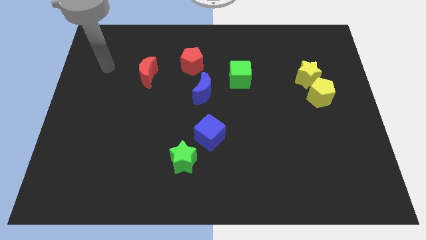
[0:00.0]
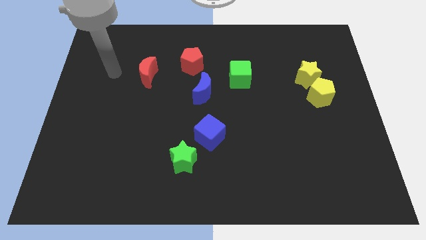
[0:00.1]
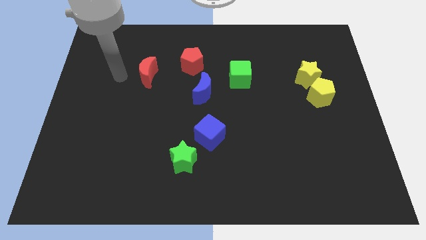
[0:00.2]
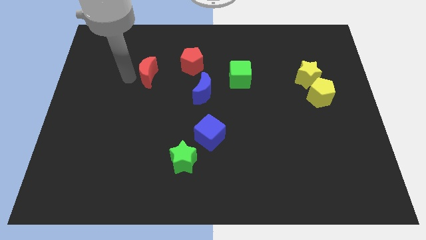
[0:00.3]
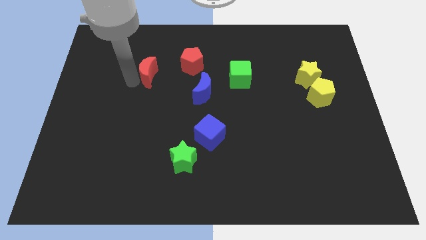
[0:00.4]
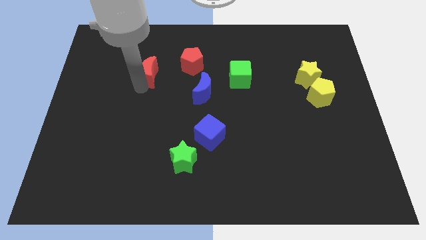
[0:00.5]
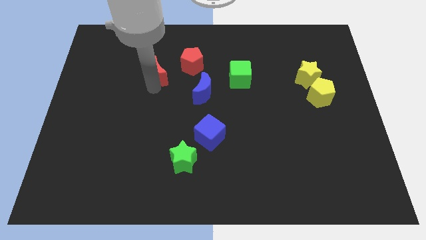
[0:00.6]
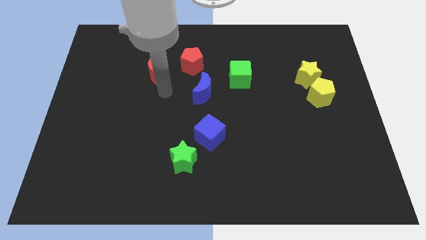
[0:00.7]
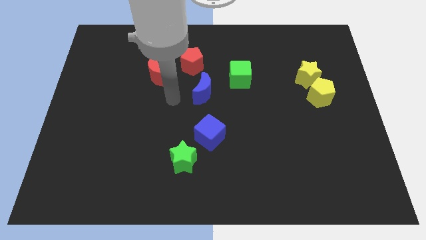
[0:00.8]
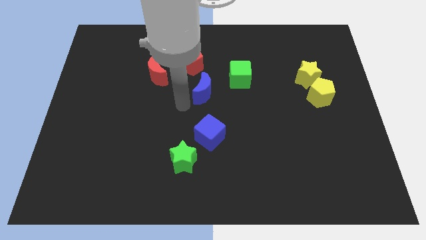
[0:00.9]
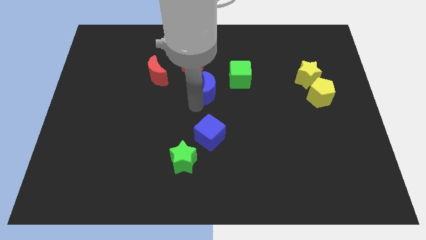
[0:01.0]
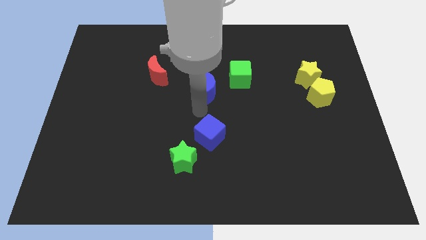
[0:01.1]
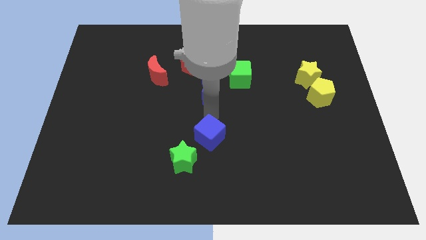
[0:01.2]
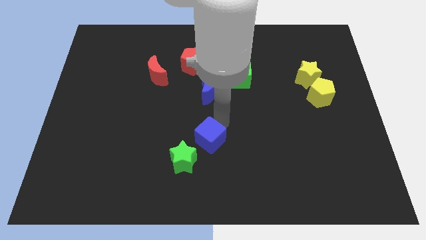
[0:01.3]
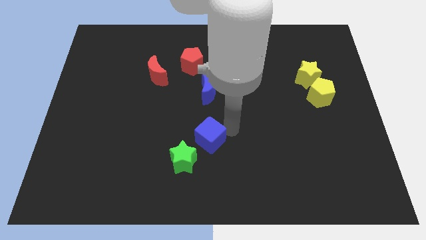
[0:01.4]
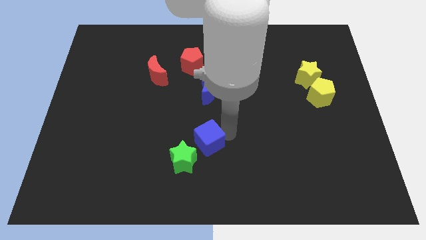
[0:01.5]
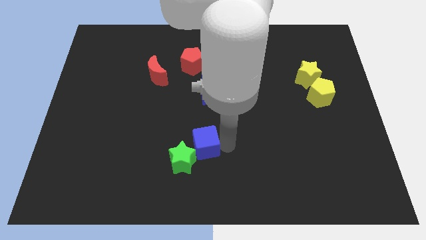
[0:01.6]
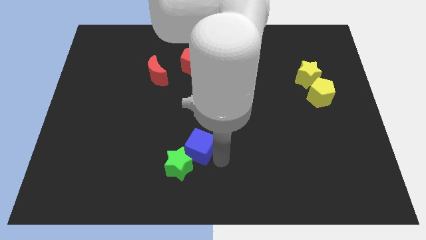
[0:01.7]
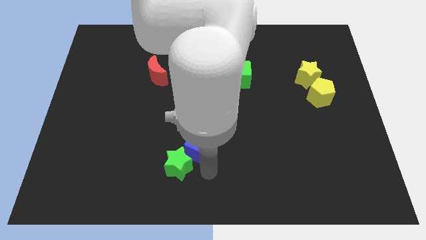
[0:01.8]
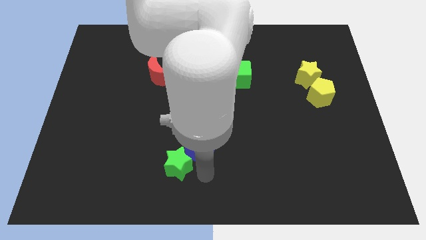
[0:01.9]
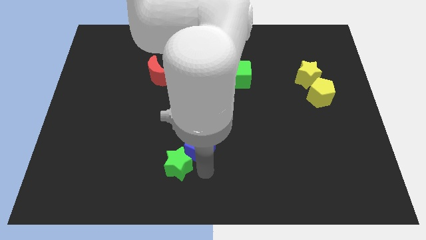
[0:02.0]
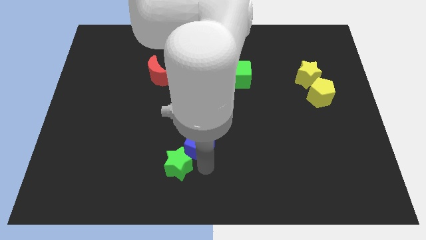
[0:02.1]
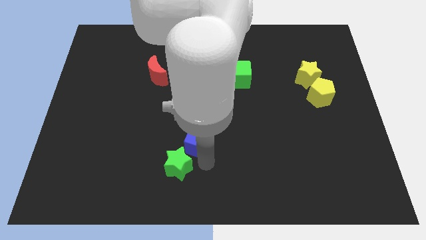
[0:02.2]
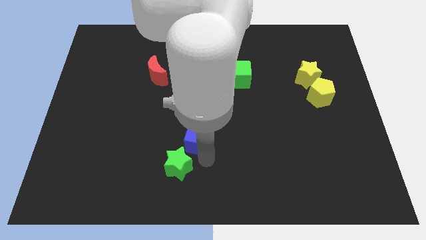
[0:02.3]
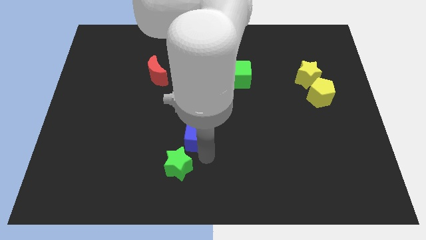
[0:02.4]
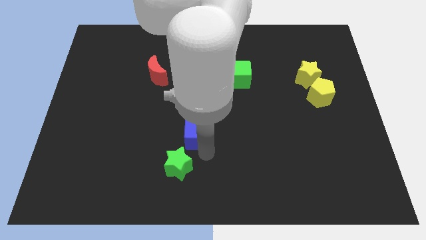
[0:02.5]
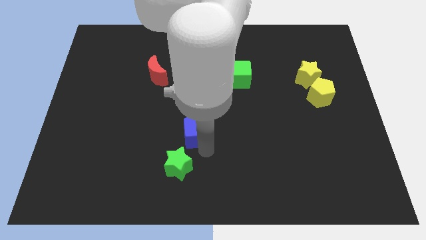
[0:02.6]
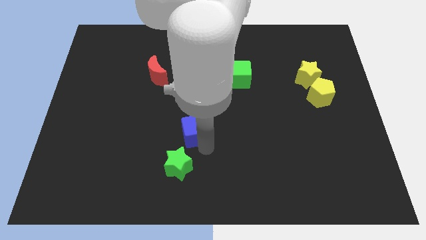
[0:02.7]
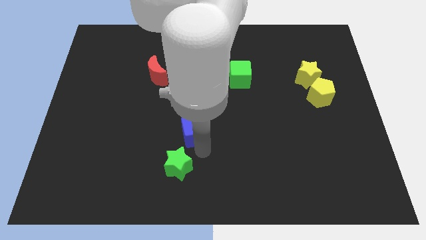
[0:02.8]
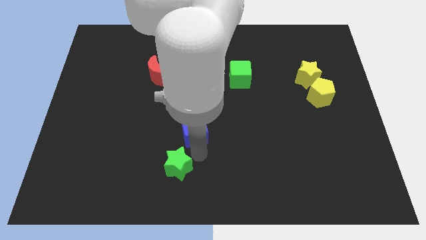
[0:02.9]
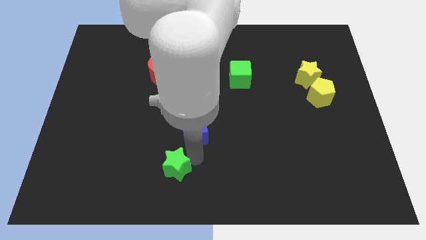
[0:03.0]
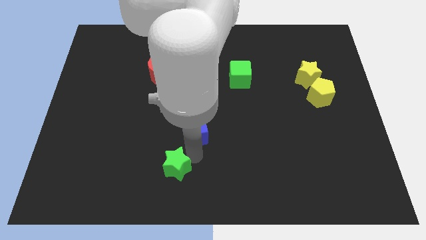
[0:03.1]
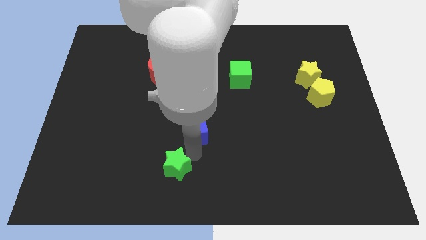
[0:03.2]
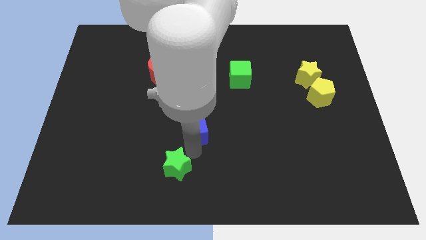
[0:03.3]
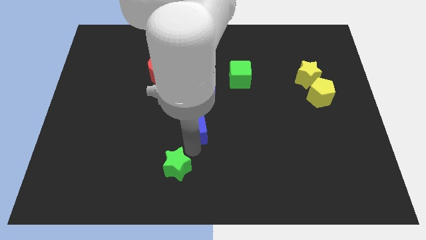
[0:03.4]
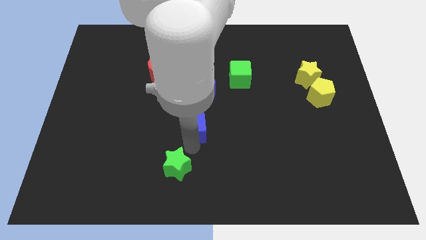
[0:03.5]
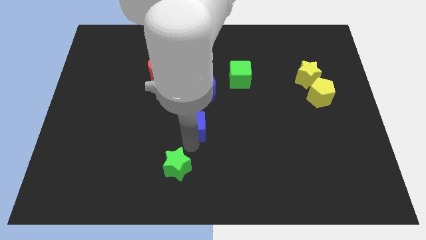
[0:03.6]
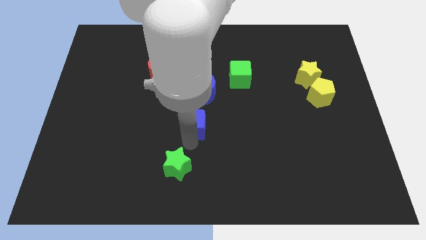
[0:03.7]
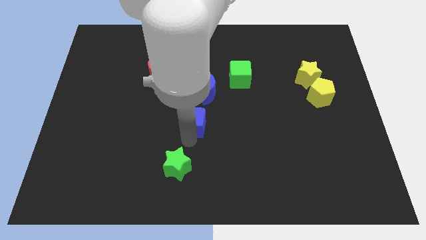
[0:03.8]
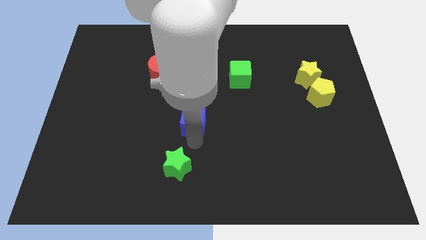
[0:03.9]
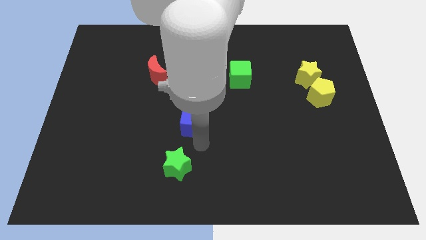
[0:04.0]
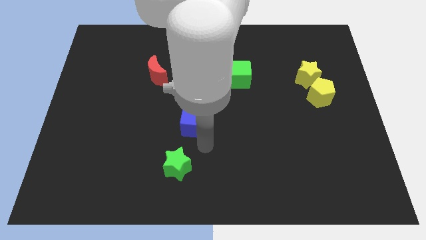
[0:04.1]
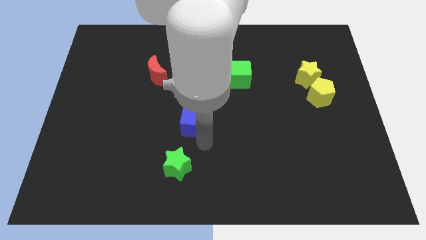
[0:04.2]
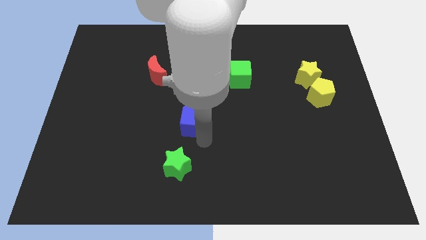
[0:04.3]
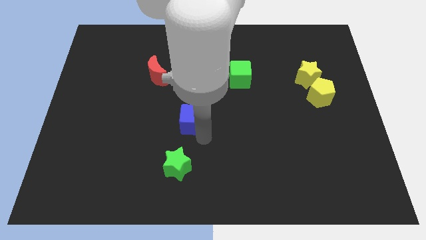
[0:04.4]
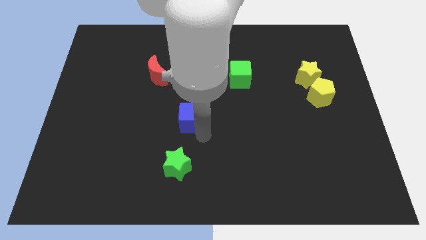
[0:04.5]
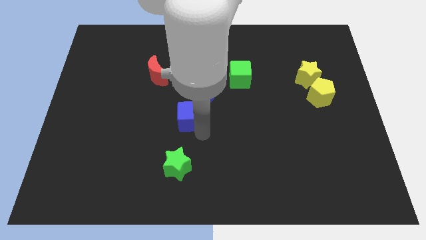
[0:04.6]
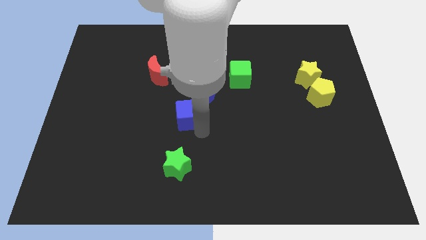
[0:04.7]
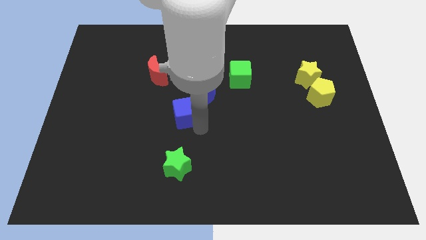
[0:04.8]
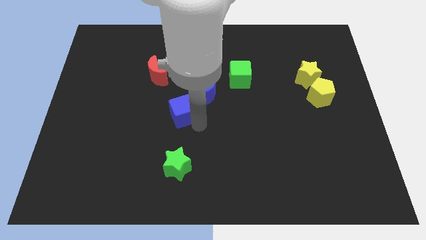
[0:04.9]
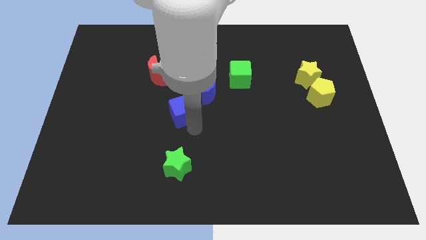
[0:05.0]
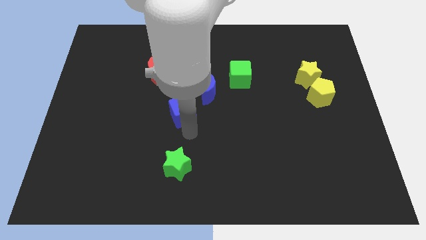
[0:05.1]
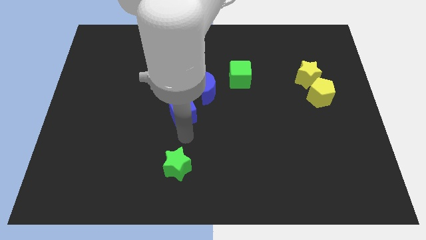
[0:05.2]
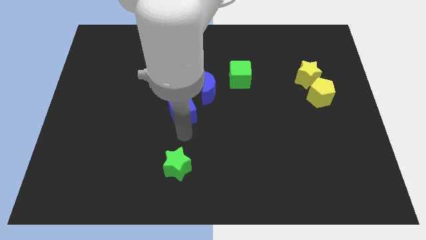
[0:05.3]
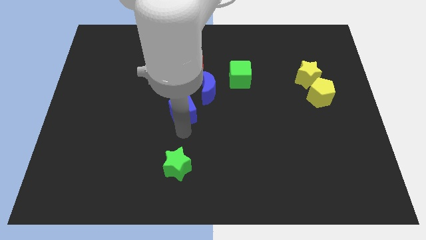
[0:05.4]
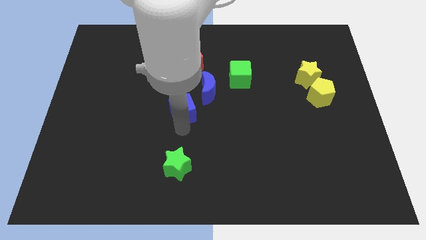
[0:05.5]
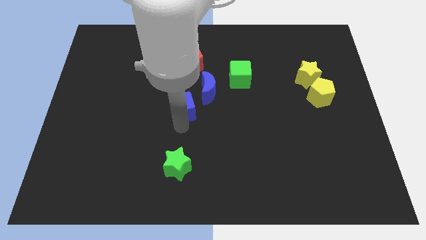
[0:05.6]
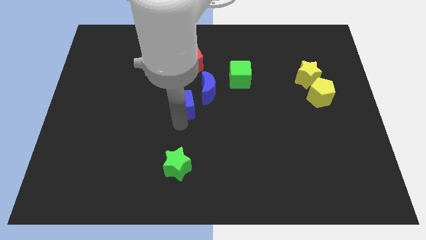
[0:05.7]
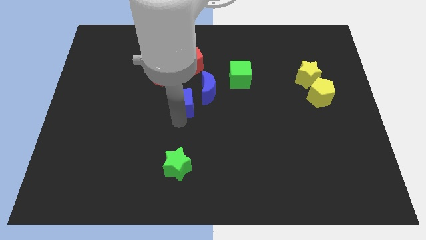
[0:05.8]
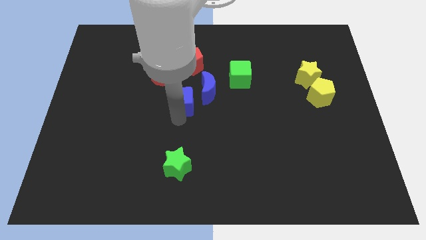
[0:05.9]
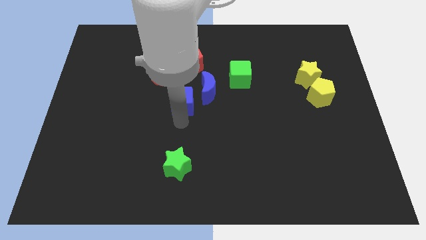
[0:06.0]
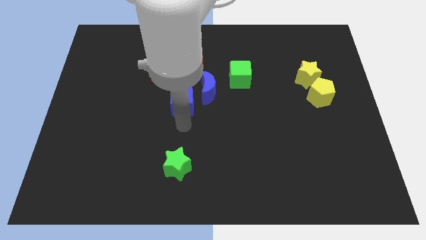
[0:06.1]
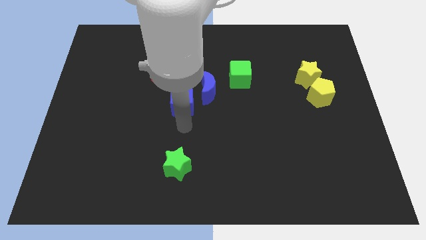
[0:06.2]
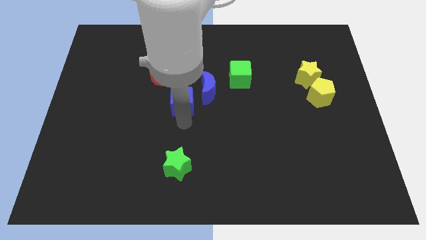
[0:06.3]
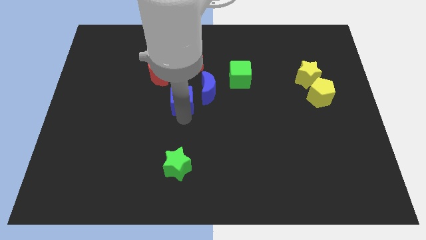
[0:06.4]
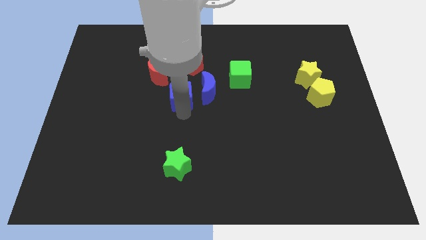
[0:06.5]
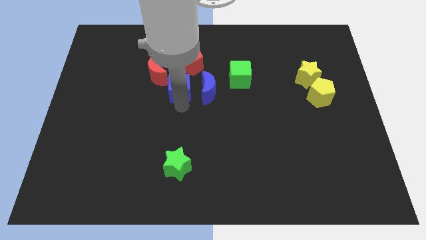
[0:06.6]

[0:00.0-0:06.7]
move the blue cube to the top left of the blue moon

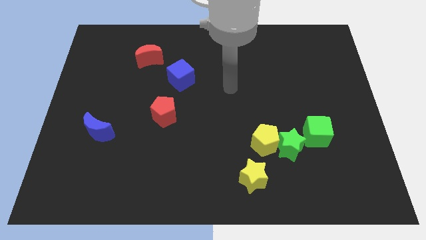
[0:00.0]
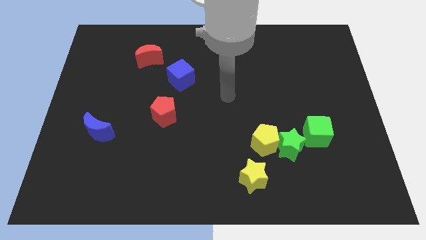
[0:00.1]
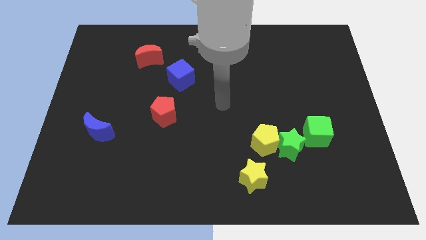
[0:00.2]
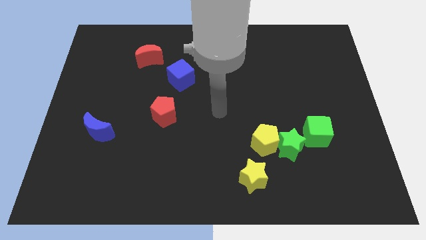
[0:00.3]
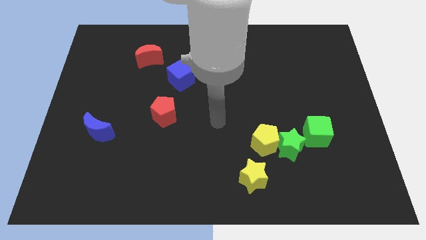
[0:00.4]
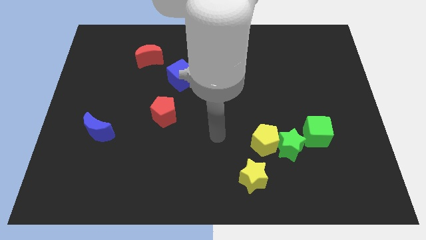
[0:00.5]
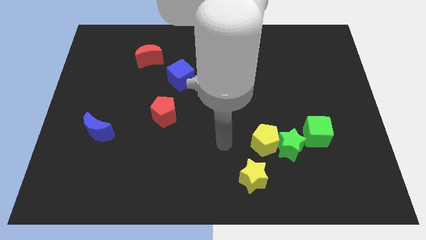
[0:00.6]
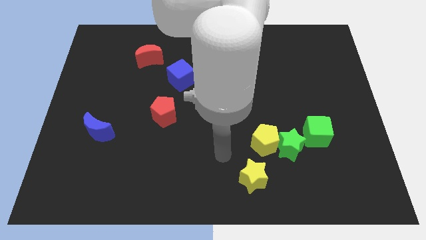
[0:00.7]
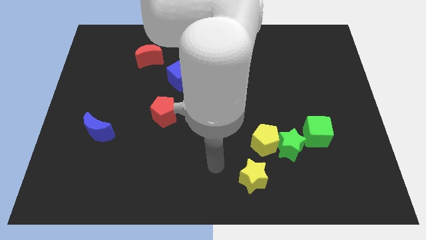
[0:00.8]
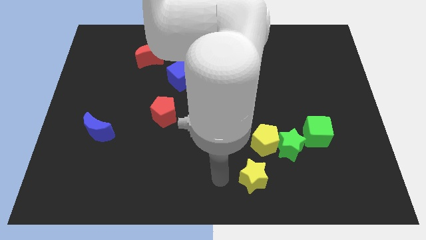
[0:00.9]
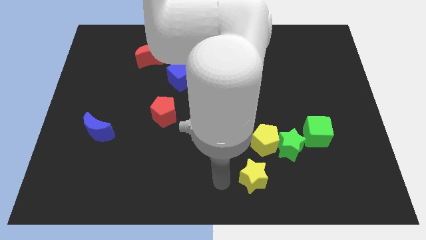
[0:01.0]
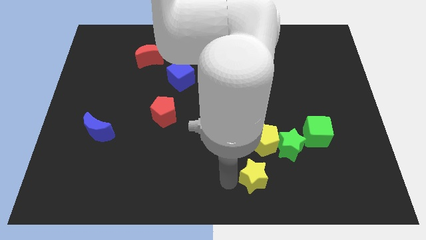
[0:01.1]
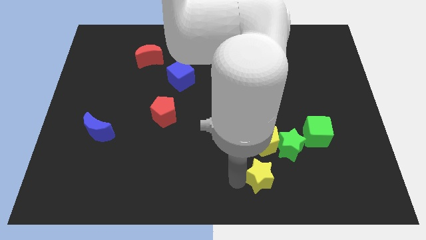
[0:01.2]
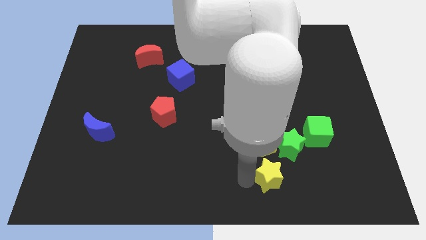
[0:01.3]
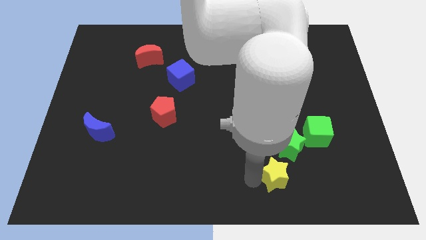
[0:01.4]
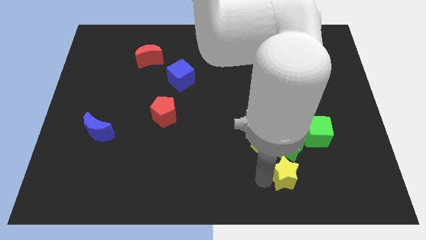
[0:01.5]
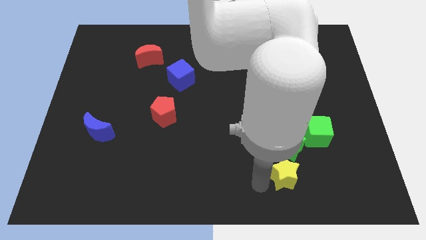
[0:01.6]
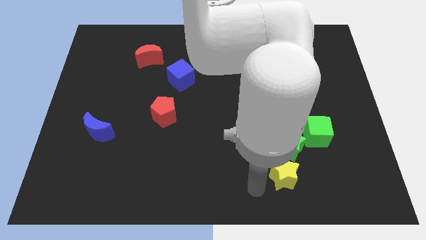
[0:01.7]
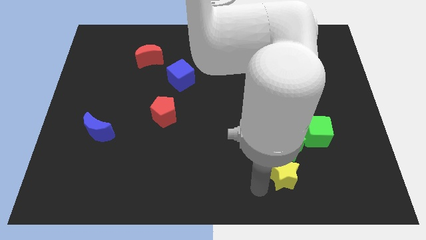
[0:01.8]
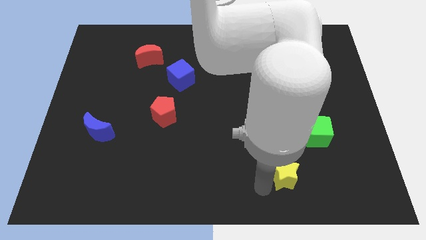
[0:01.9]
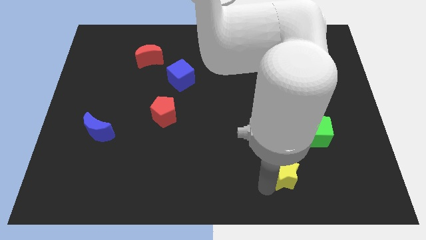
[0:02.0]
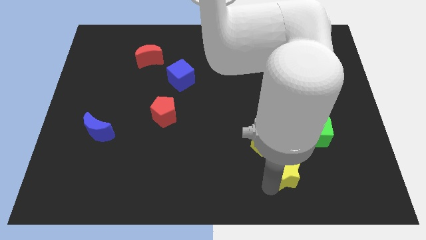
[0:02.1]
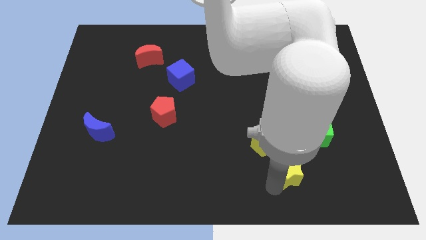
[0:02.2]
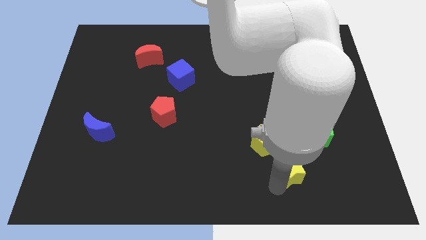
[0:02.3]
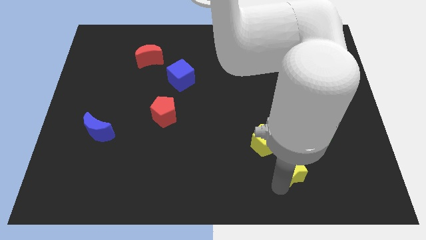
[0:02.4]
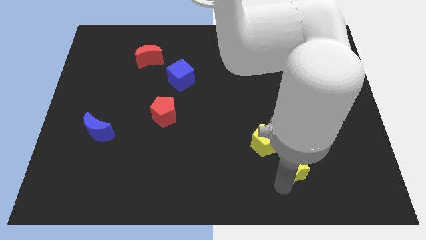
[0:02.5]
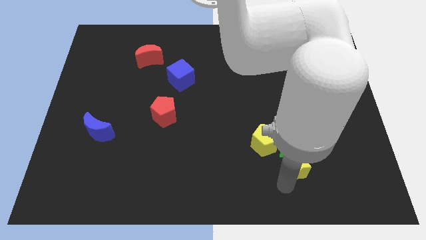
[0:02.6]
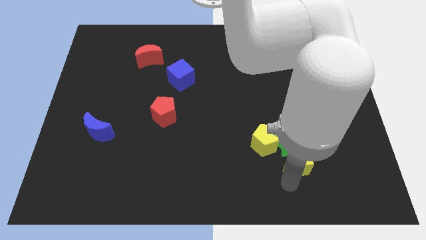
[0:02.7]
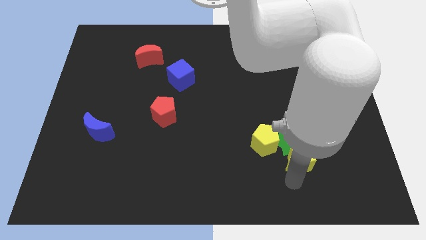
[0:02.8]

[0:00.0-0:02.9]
slide the yellow star right of the yellow pentagon
